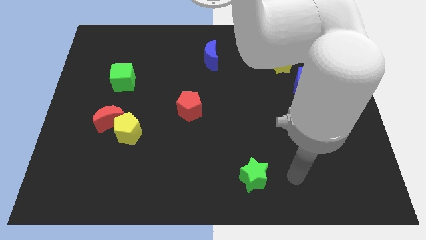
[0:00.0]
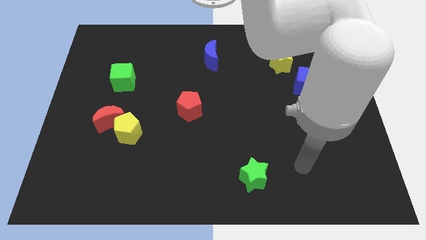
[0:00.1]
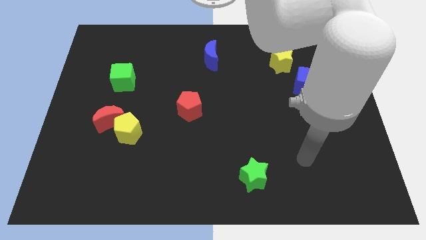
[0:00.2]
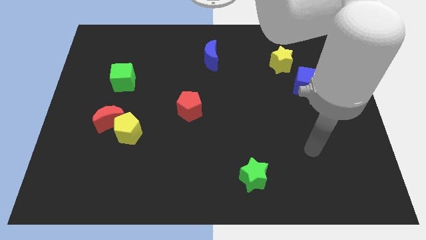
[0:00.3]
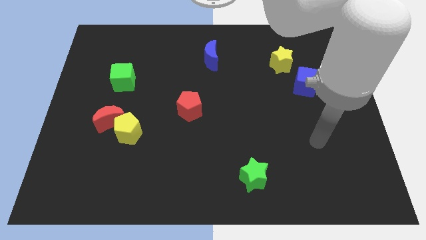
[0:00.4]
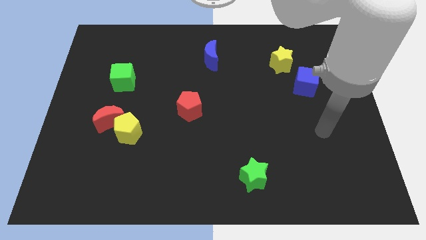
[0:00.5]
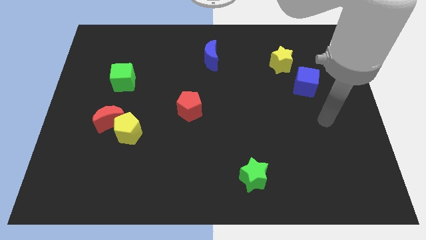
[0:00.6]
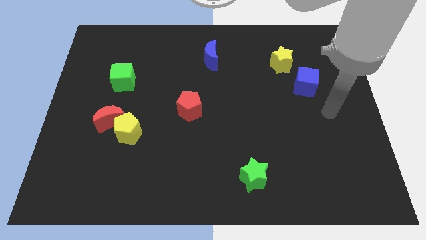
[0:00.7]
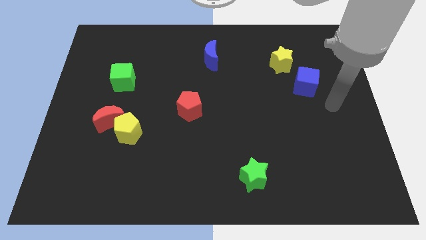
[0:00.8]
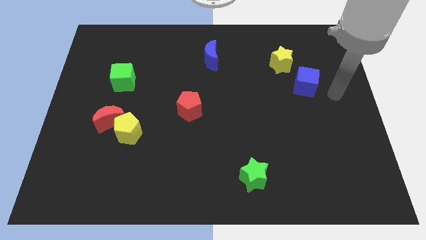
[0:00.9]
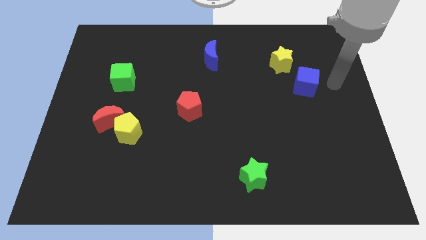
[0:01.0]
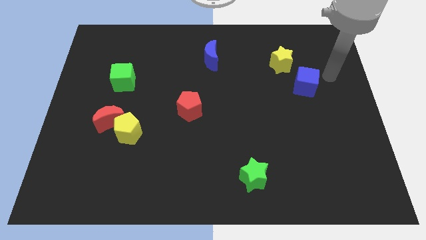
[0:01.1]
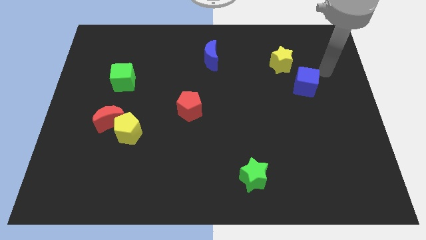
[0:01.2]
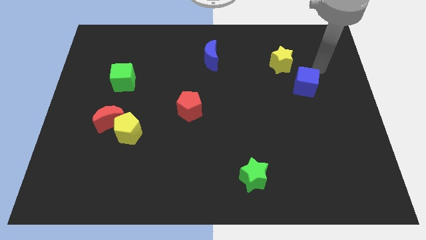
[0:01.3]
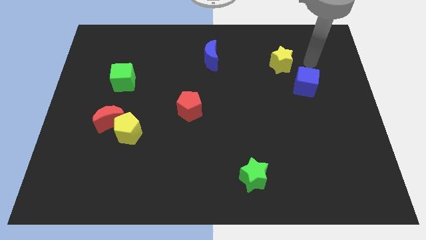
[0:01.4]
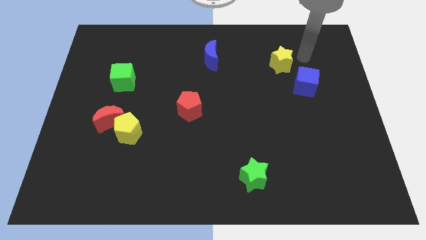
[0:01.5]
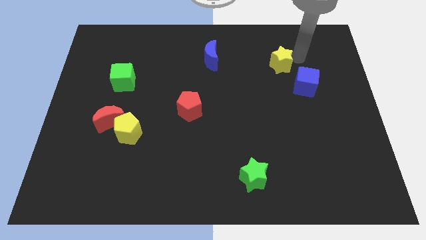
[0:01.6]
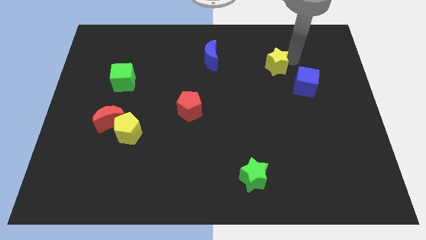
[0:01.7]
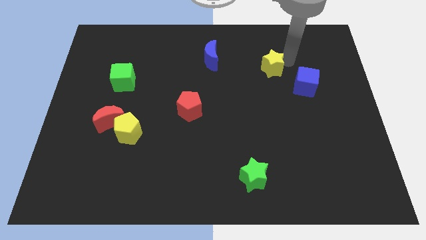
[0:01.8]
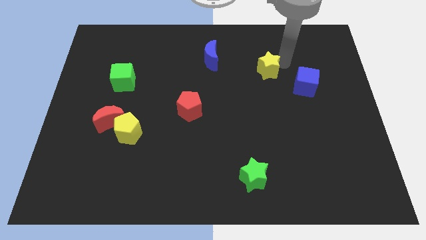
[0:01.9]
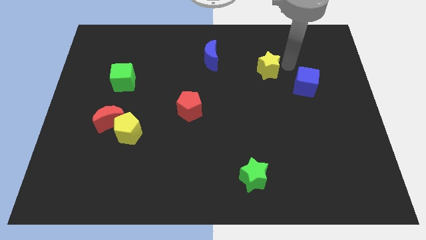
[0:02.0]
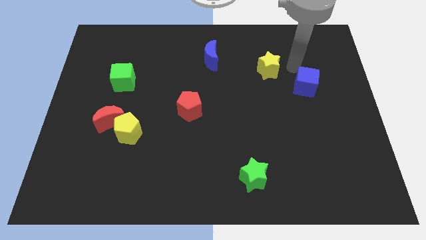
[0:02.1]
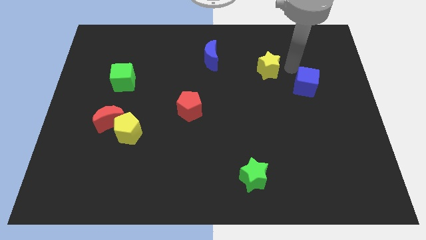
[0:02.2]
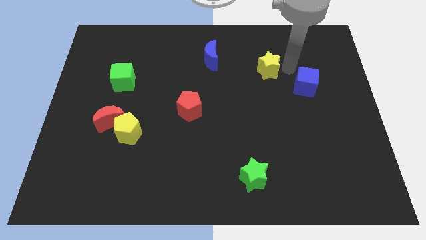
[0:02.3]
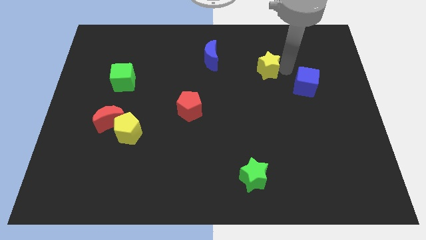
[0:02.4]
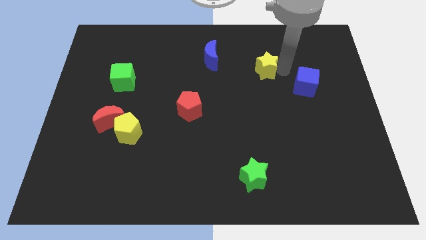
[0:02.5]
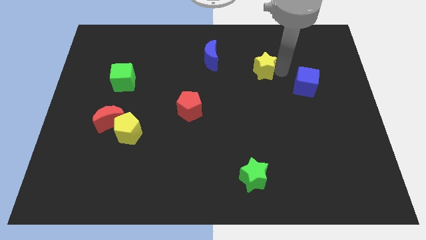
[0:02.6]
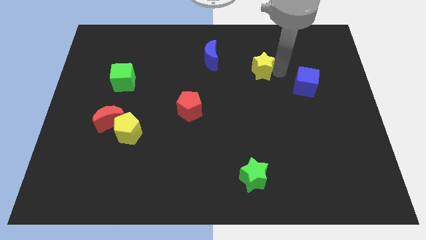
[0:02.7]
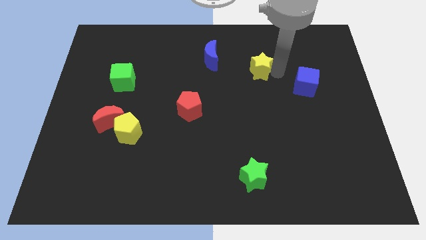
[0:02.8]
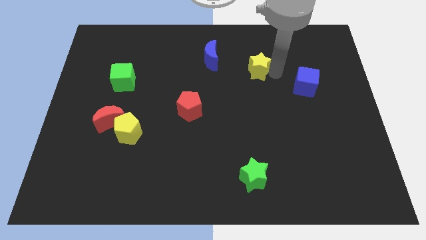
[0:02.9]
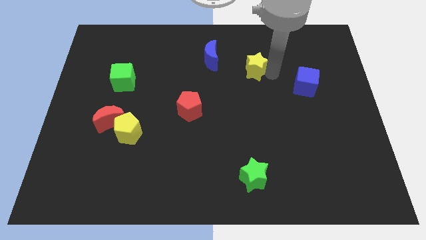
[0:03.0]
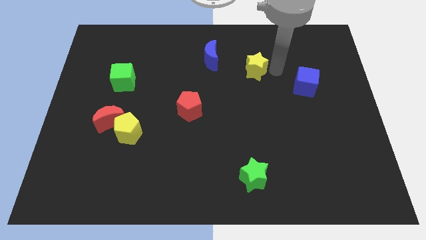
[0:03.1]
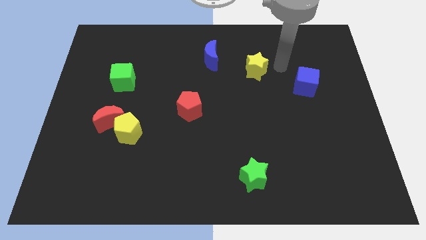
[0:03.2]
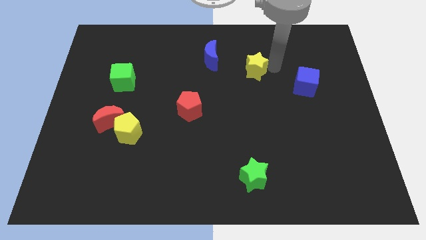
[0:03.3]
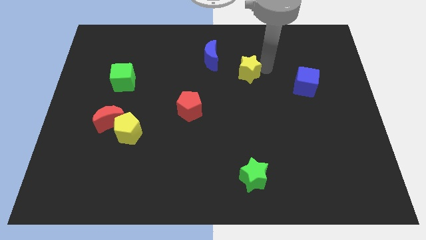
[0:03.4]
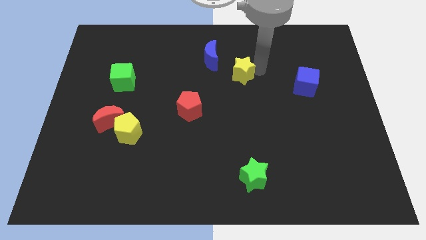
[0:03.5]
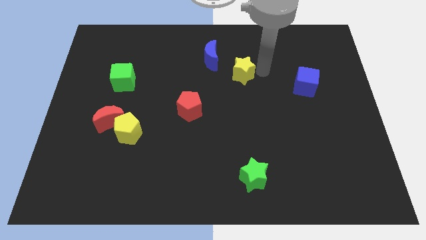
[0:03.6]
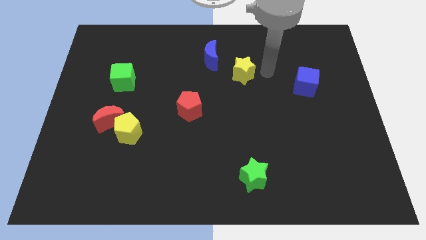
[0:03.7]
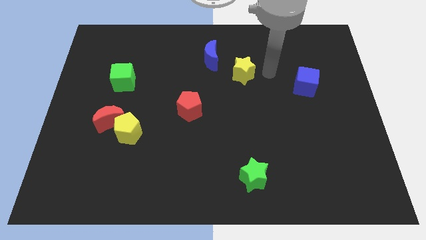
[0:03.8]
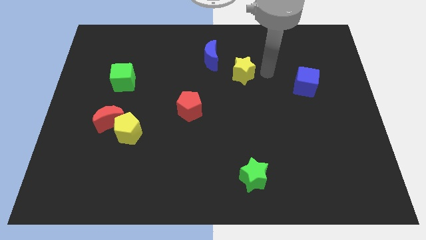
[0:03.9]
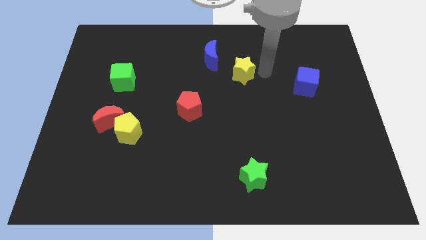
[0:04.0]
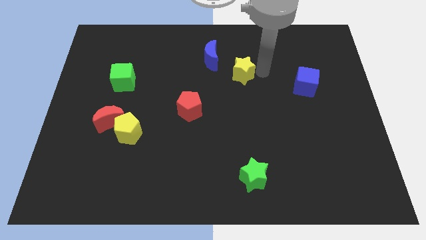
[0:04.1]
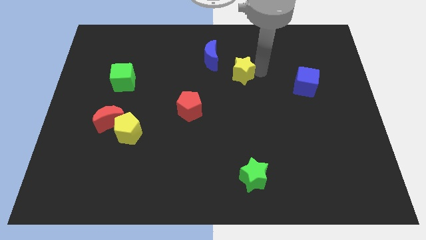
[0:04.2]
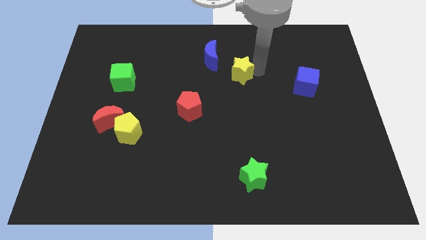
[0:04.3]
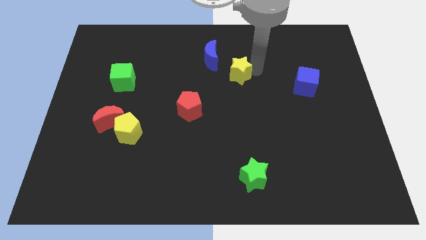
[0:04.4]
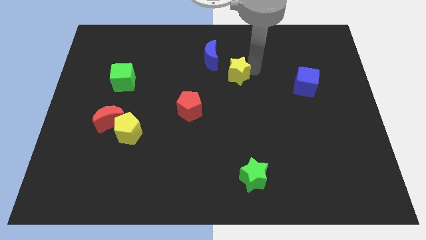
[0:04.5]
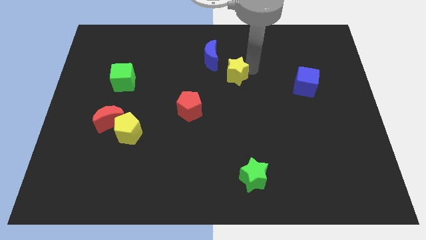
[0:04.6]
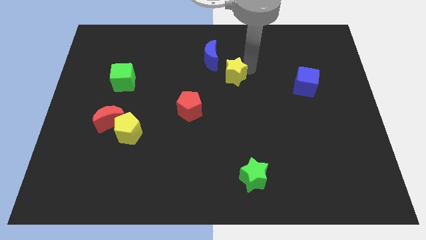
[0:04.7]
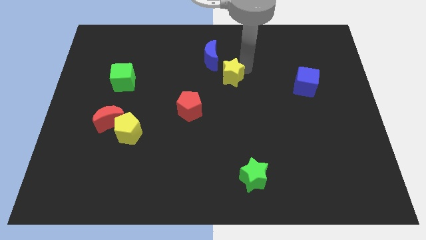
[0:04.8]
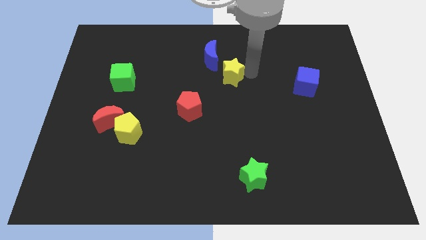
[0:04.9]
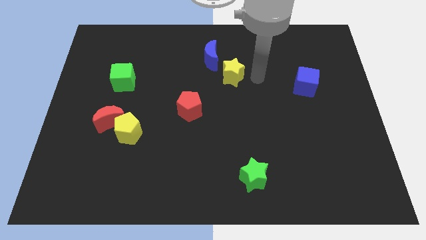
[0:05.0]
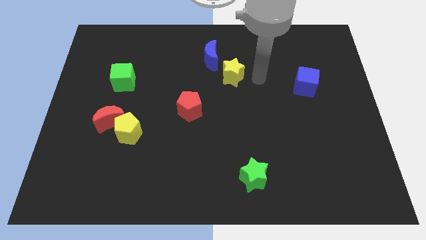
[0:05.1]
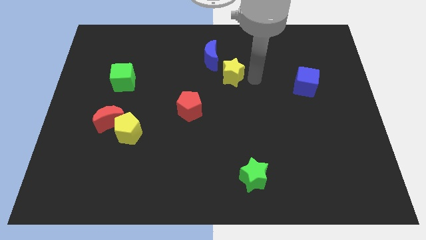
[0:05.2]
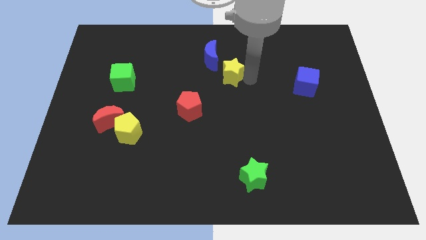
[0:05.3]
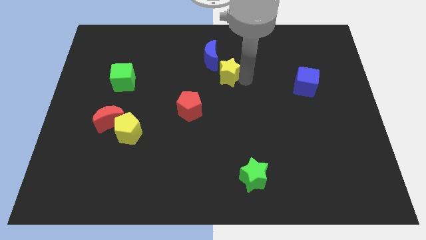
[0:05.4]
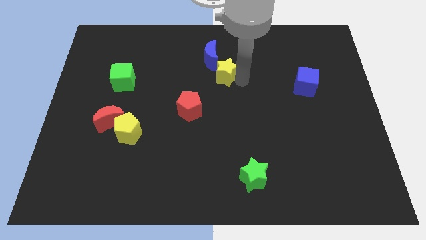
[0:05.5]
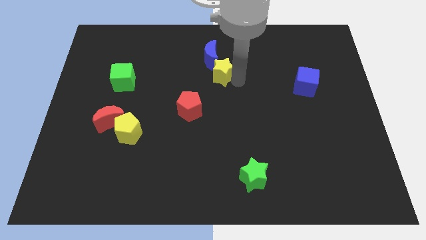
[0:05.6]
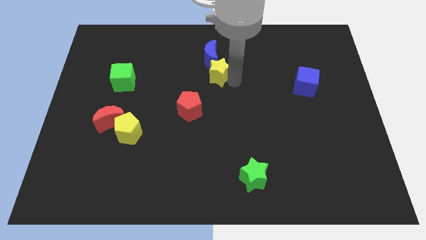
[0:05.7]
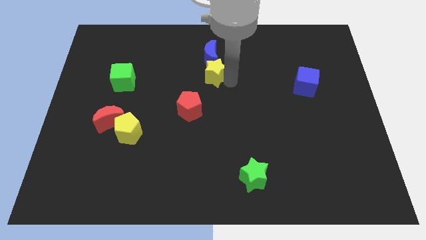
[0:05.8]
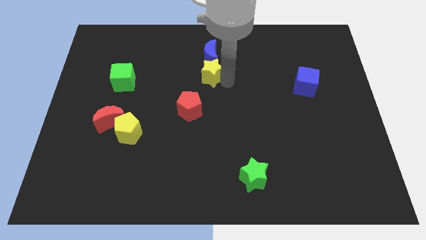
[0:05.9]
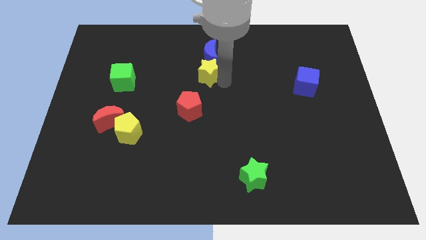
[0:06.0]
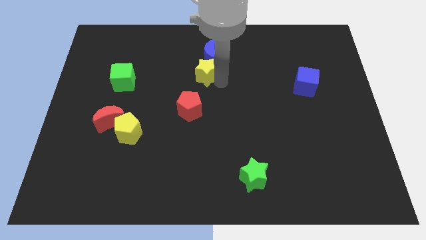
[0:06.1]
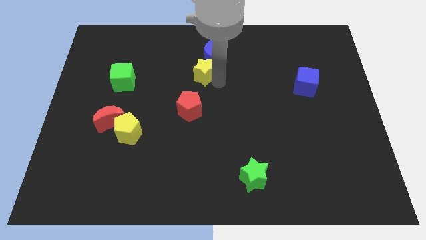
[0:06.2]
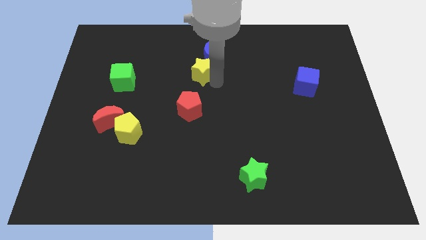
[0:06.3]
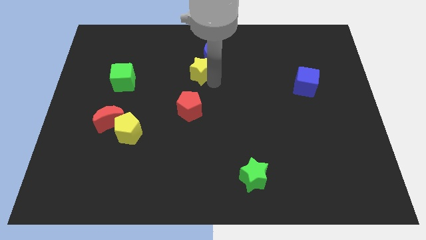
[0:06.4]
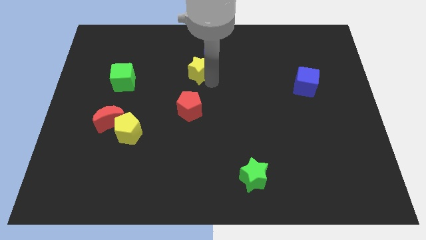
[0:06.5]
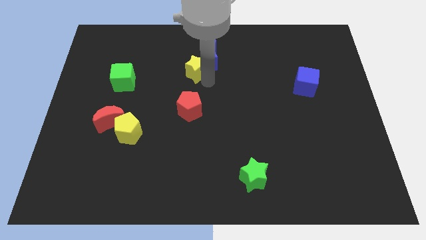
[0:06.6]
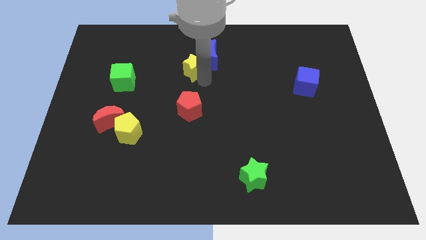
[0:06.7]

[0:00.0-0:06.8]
put the yellow star to the left of the blue moon

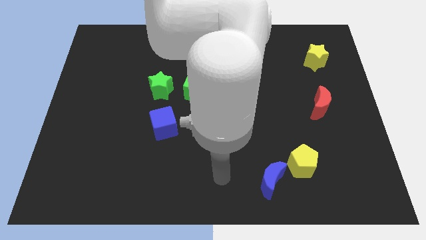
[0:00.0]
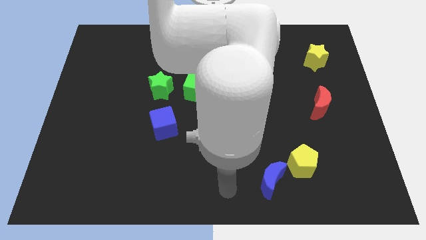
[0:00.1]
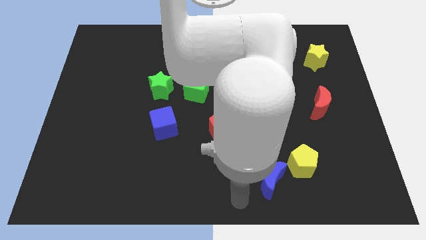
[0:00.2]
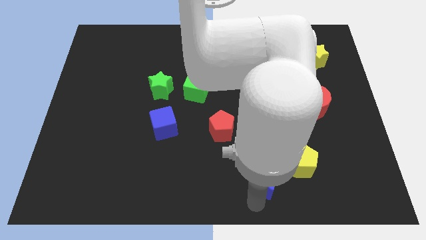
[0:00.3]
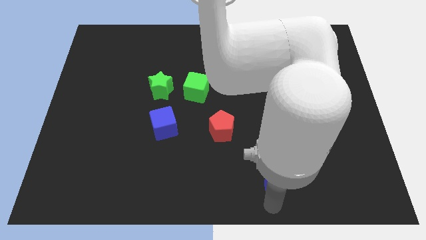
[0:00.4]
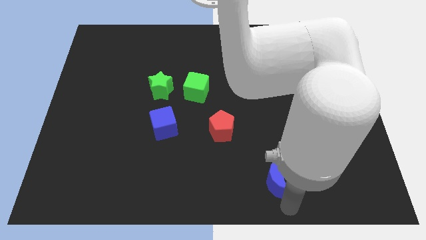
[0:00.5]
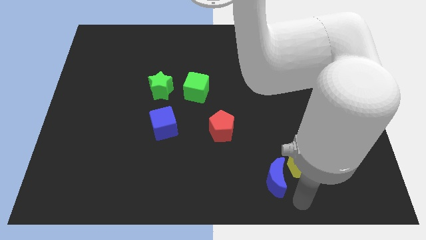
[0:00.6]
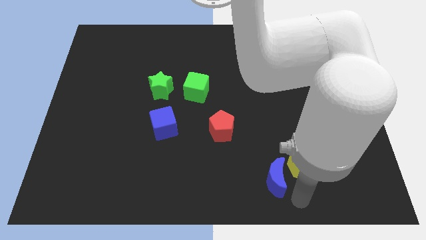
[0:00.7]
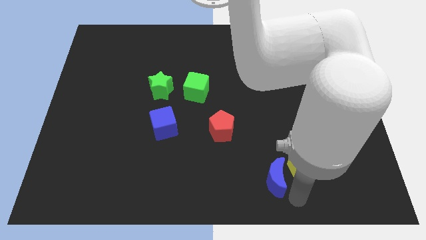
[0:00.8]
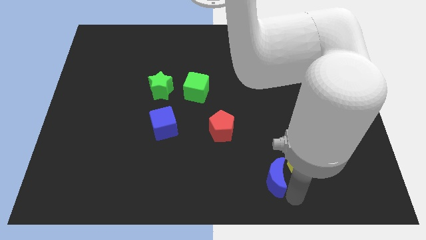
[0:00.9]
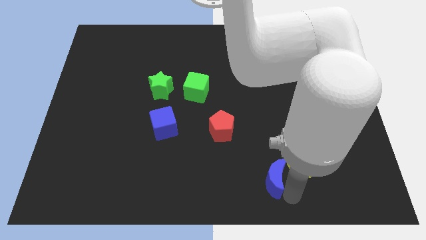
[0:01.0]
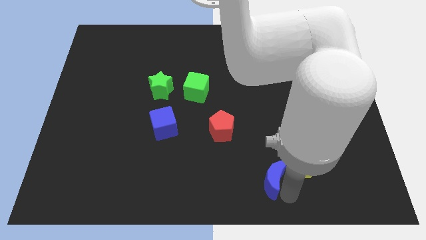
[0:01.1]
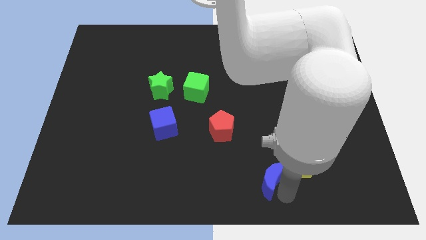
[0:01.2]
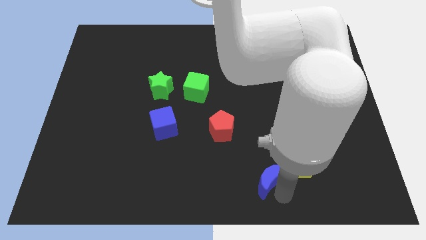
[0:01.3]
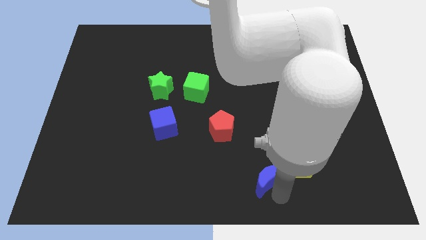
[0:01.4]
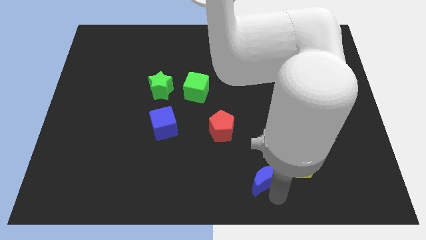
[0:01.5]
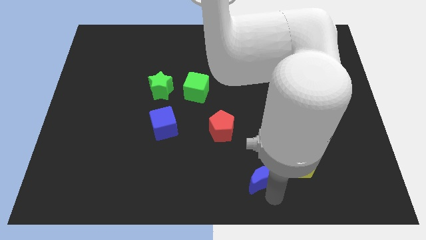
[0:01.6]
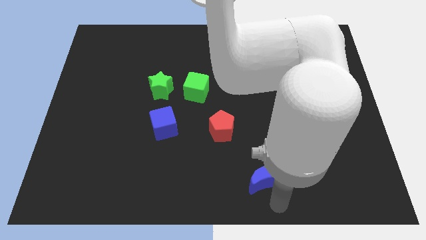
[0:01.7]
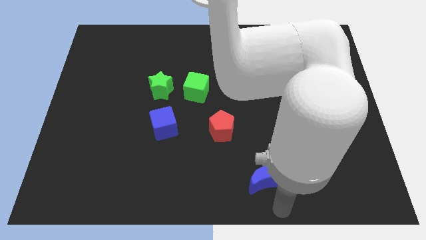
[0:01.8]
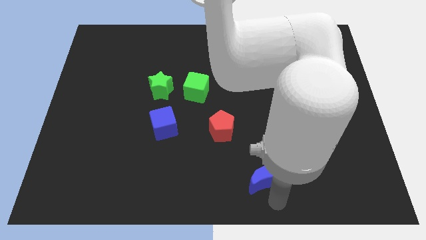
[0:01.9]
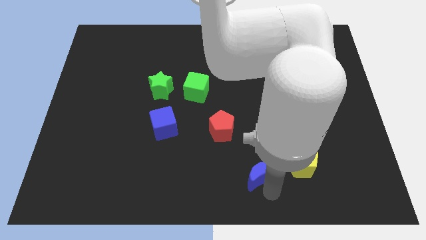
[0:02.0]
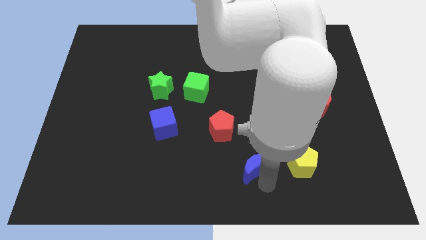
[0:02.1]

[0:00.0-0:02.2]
push the blue moon diagonally down and to the right of the red pentagon
